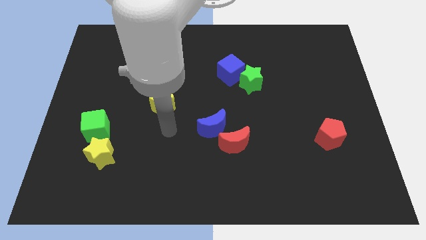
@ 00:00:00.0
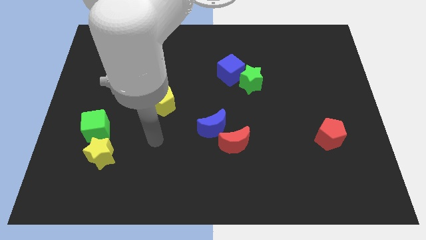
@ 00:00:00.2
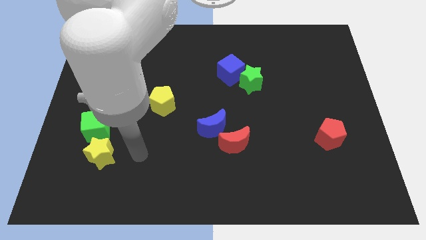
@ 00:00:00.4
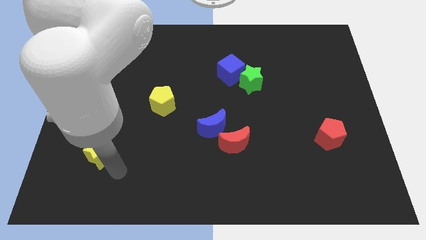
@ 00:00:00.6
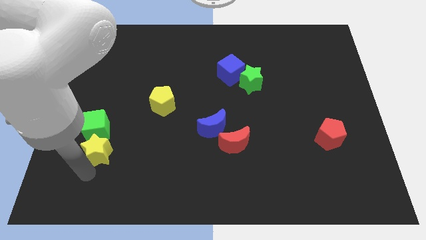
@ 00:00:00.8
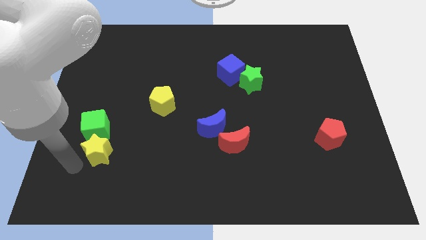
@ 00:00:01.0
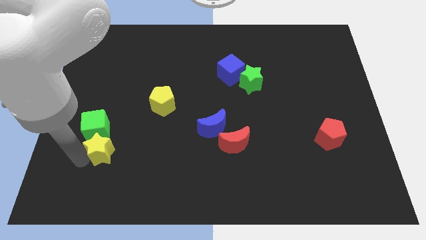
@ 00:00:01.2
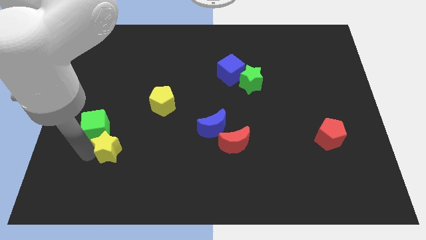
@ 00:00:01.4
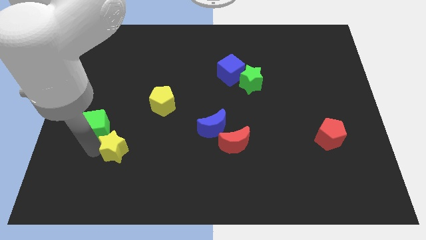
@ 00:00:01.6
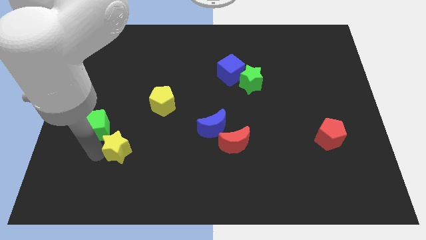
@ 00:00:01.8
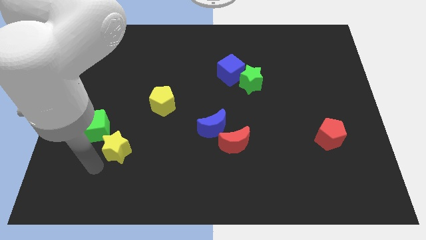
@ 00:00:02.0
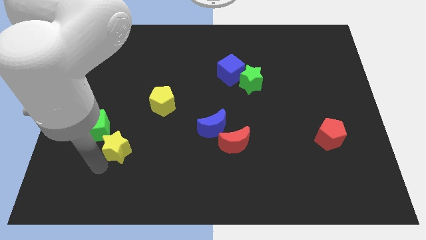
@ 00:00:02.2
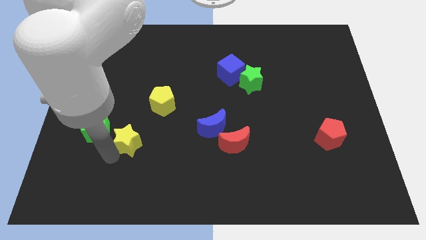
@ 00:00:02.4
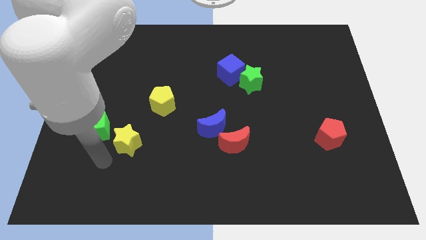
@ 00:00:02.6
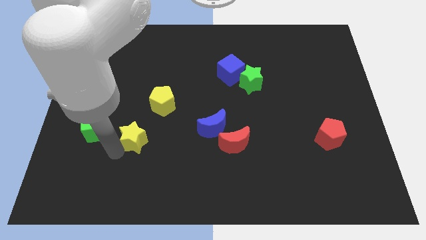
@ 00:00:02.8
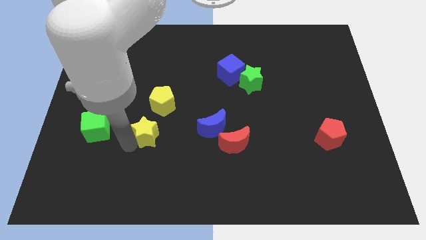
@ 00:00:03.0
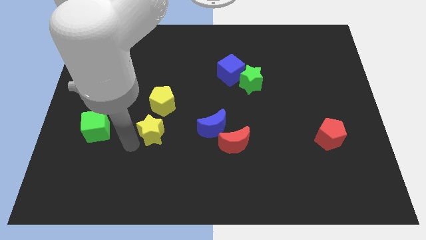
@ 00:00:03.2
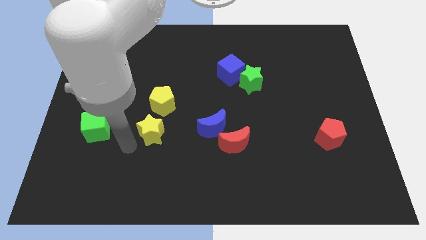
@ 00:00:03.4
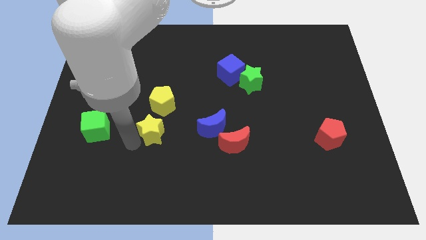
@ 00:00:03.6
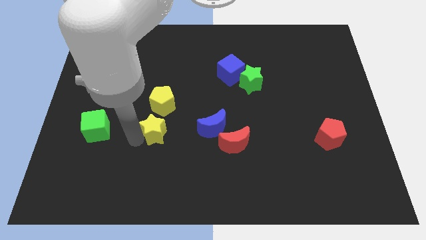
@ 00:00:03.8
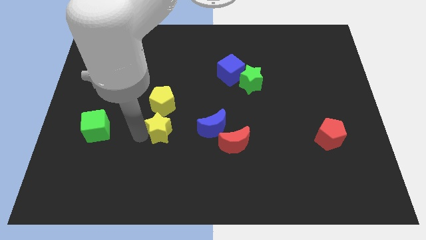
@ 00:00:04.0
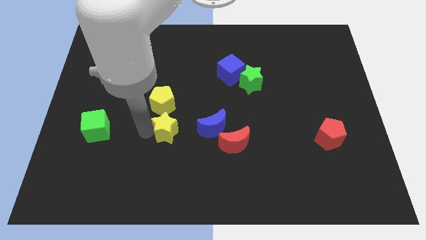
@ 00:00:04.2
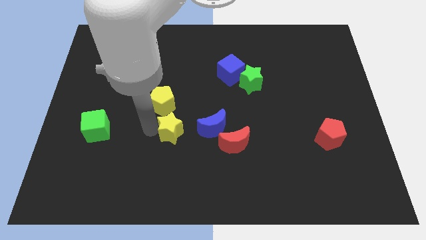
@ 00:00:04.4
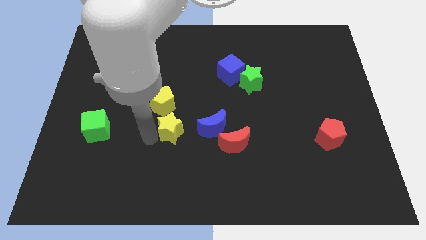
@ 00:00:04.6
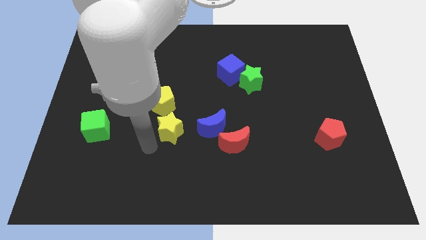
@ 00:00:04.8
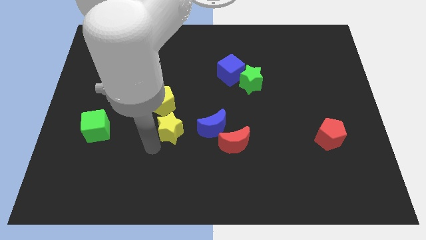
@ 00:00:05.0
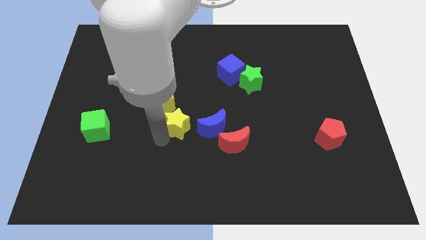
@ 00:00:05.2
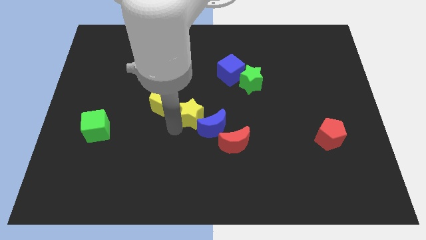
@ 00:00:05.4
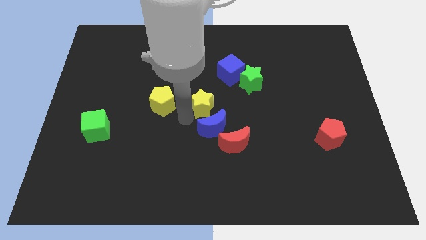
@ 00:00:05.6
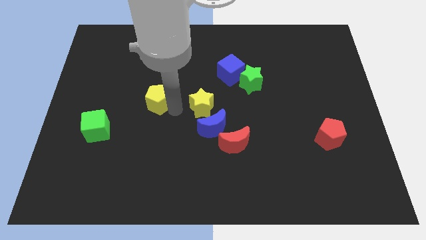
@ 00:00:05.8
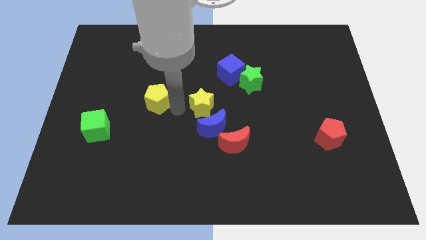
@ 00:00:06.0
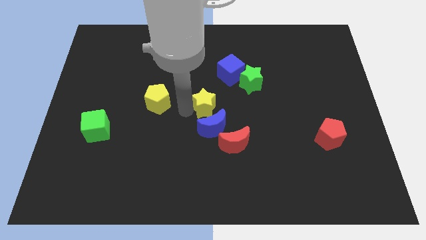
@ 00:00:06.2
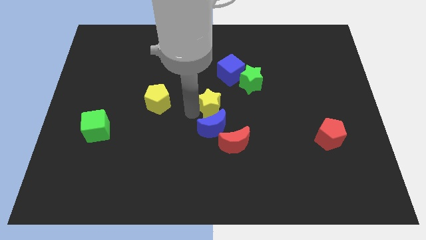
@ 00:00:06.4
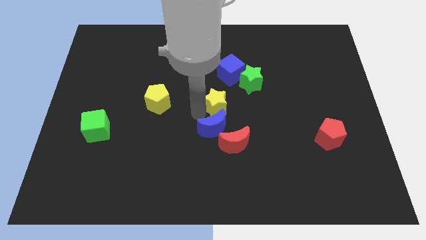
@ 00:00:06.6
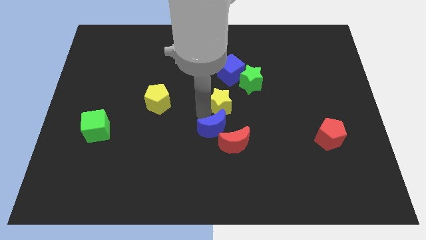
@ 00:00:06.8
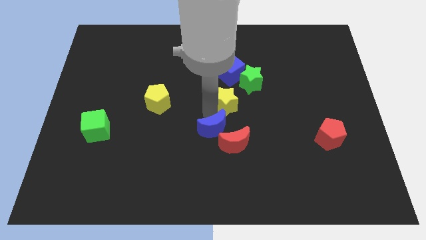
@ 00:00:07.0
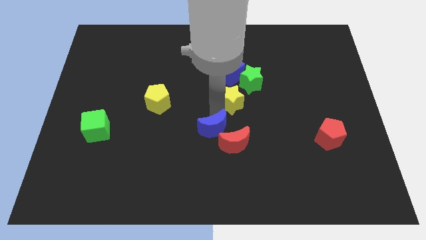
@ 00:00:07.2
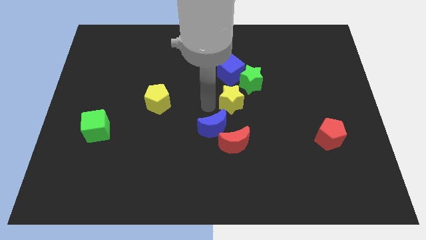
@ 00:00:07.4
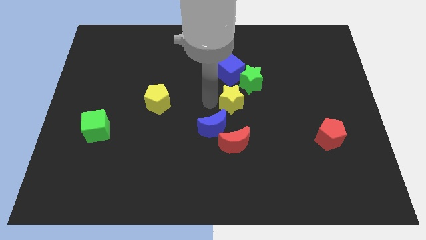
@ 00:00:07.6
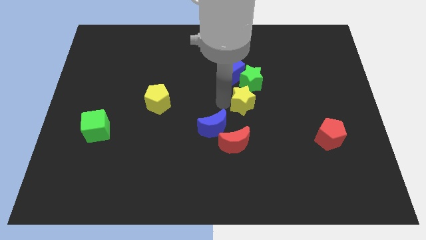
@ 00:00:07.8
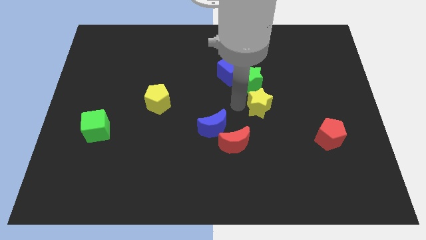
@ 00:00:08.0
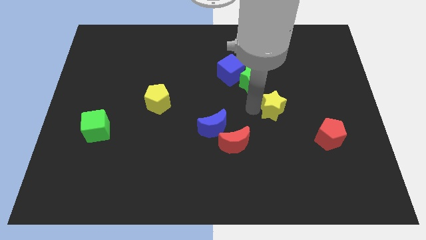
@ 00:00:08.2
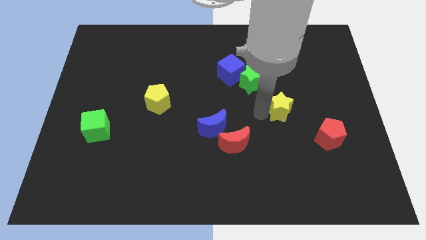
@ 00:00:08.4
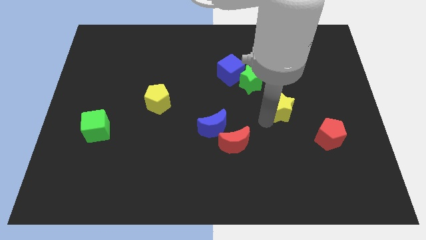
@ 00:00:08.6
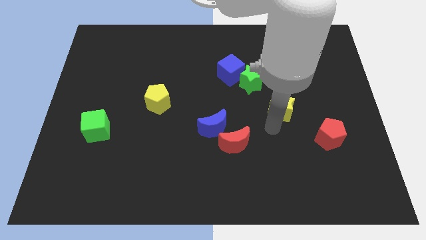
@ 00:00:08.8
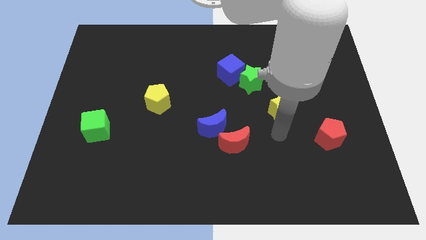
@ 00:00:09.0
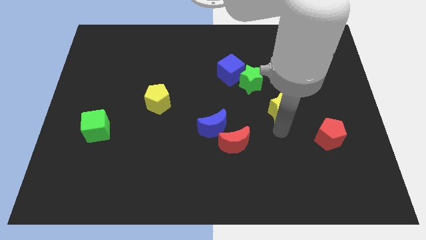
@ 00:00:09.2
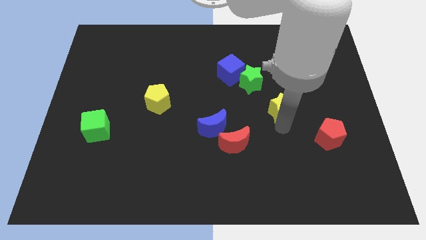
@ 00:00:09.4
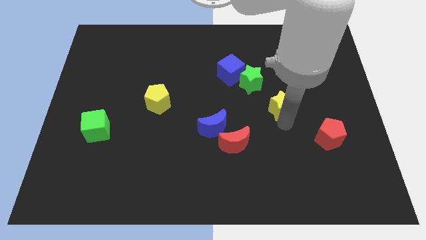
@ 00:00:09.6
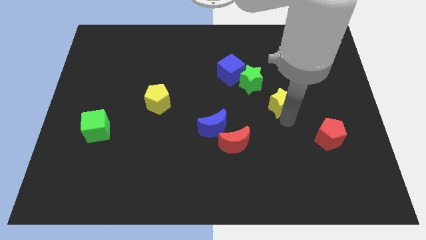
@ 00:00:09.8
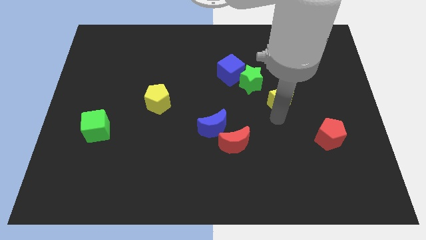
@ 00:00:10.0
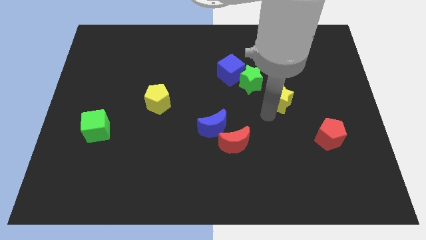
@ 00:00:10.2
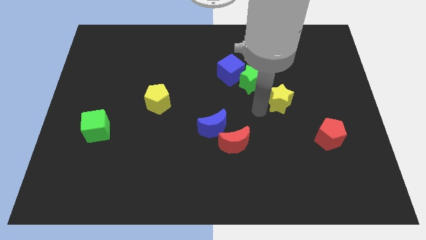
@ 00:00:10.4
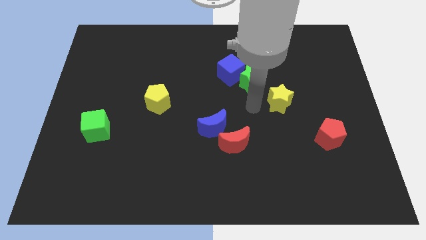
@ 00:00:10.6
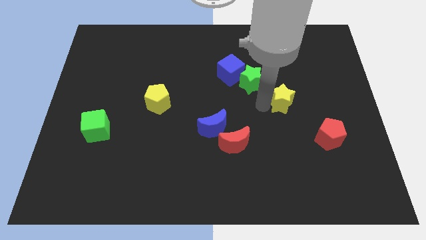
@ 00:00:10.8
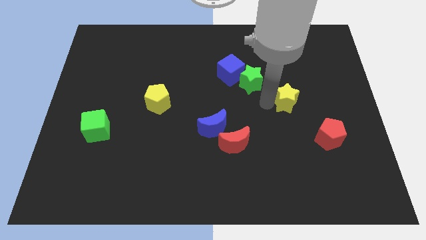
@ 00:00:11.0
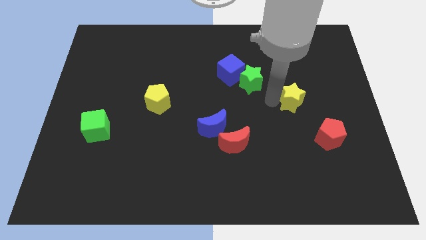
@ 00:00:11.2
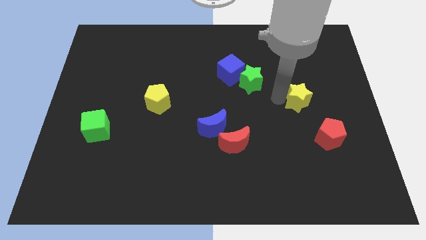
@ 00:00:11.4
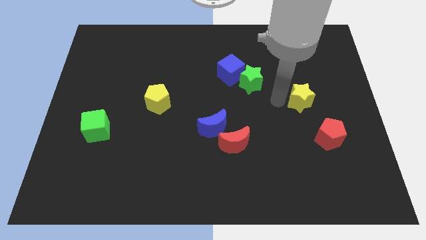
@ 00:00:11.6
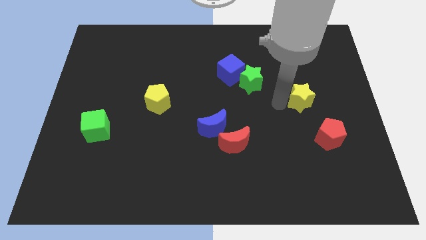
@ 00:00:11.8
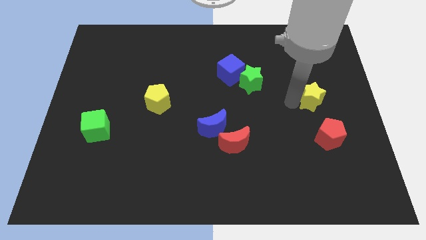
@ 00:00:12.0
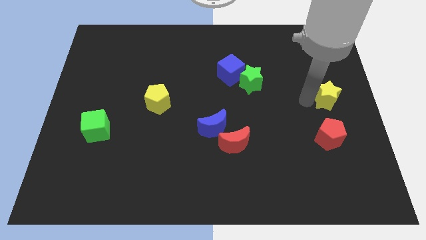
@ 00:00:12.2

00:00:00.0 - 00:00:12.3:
push the yellow star to the right side of the board

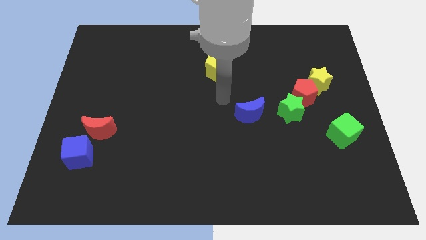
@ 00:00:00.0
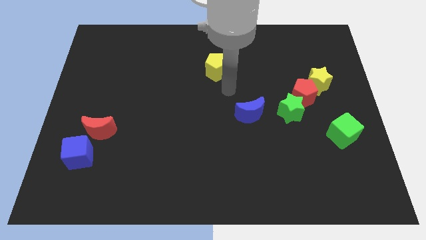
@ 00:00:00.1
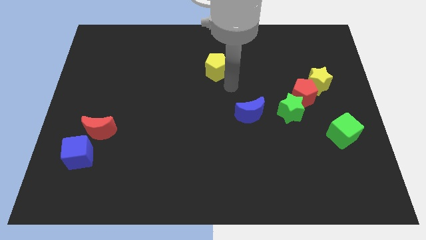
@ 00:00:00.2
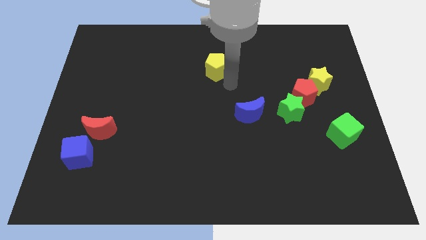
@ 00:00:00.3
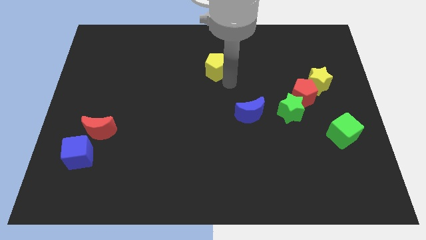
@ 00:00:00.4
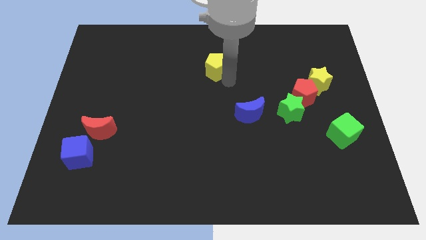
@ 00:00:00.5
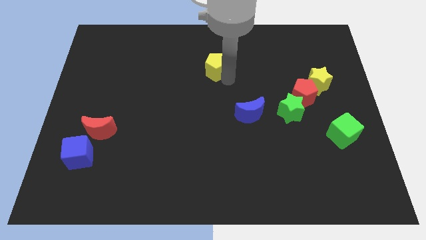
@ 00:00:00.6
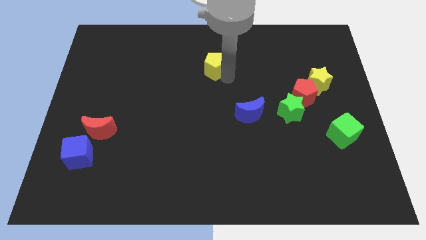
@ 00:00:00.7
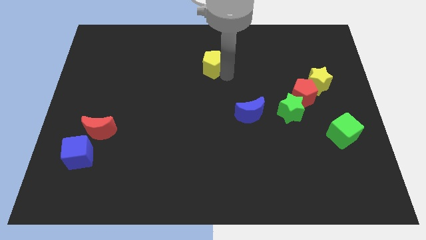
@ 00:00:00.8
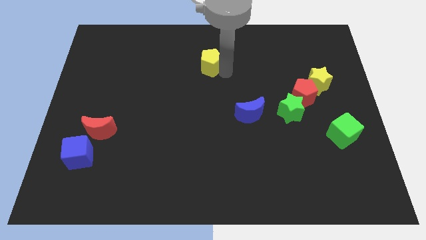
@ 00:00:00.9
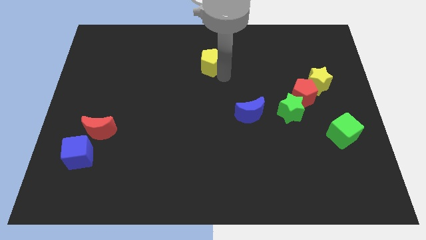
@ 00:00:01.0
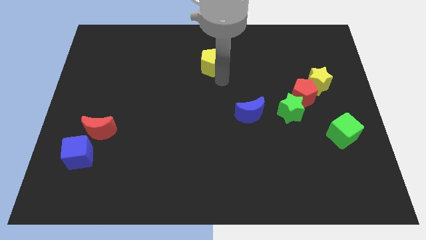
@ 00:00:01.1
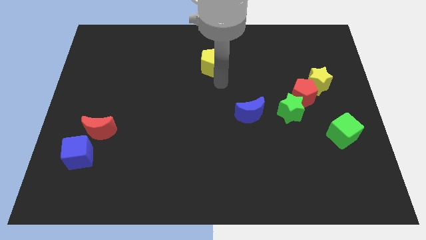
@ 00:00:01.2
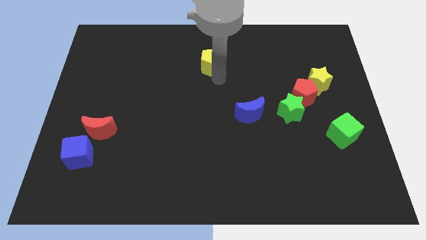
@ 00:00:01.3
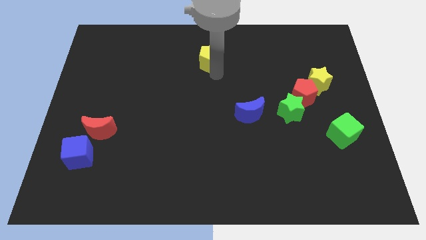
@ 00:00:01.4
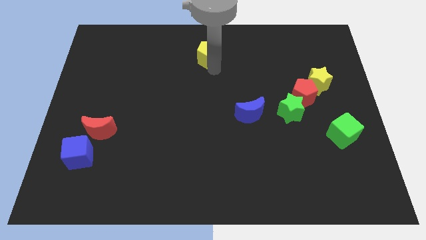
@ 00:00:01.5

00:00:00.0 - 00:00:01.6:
put the yellow pentagon to the top side

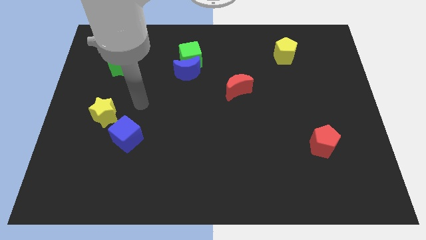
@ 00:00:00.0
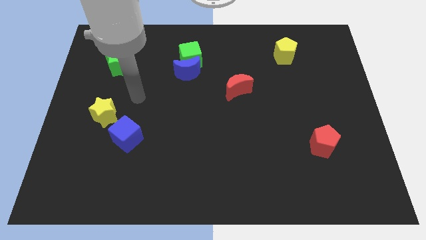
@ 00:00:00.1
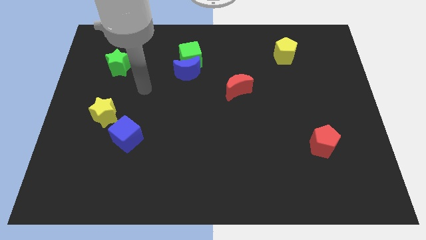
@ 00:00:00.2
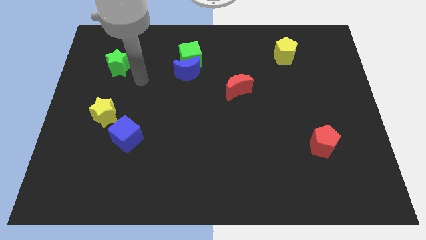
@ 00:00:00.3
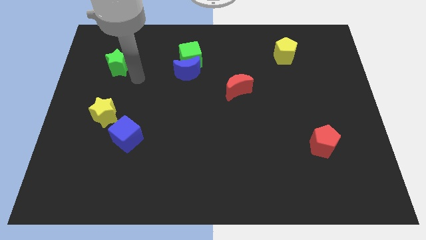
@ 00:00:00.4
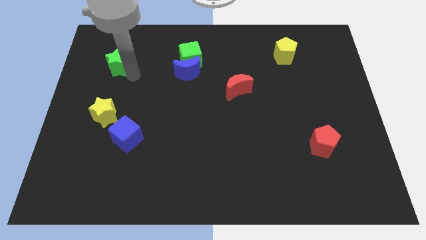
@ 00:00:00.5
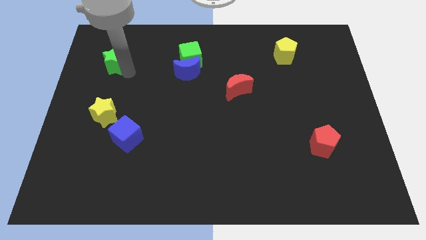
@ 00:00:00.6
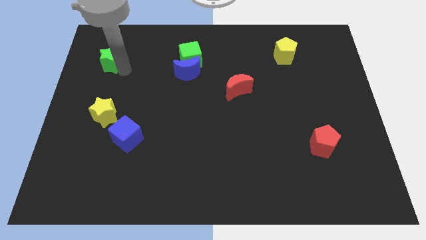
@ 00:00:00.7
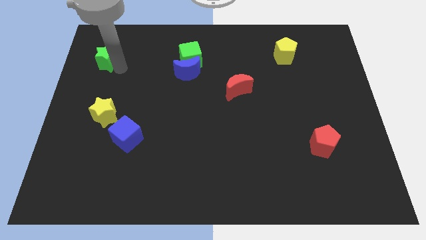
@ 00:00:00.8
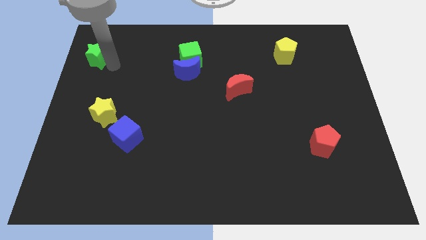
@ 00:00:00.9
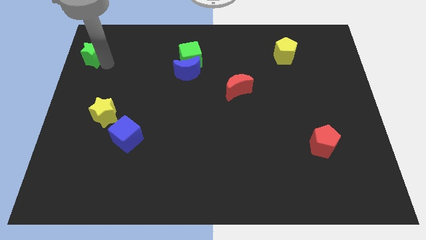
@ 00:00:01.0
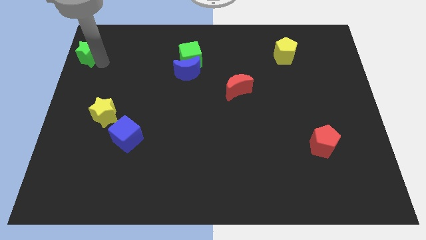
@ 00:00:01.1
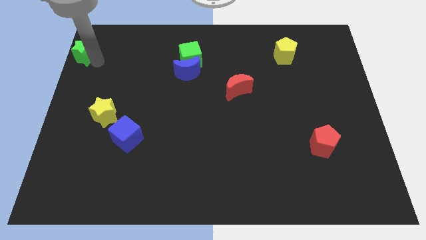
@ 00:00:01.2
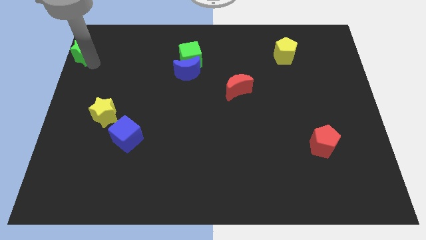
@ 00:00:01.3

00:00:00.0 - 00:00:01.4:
put the green star to the upper left corner
